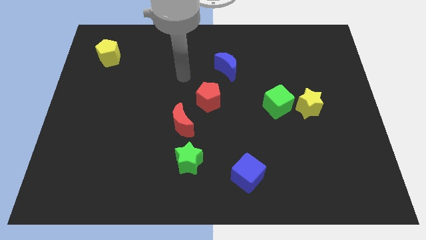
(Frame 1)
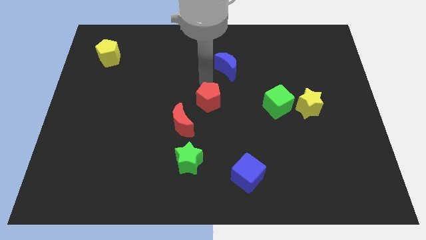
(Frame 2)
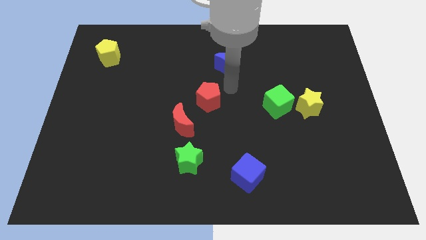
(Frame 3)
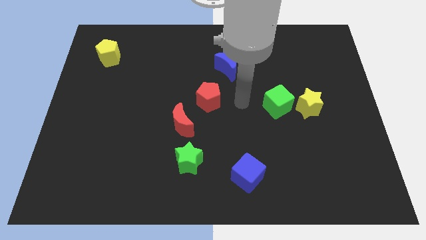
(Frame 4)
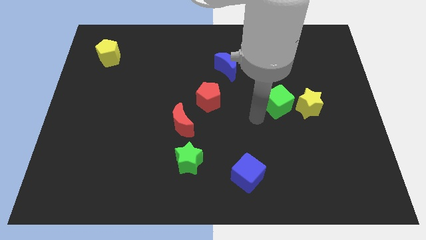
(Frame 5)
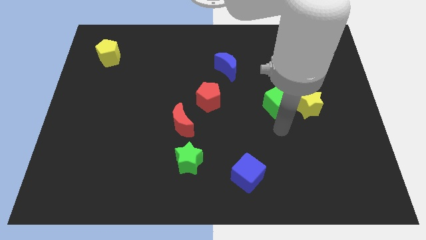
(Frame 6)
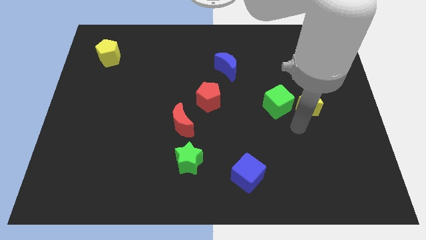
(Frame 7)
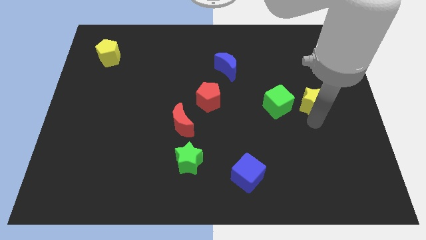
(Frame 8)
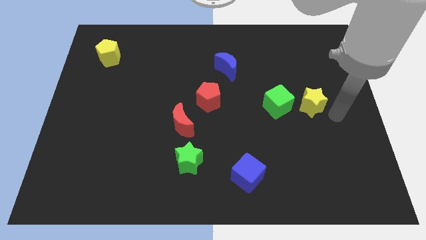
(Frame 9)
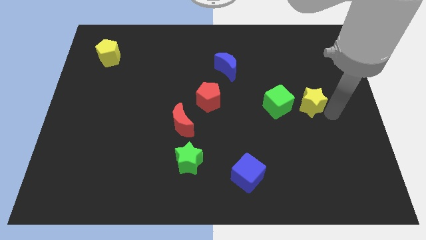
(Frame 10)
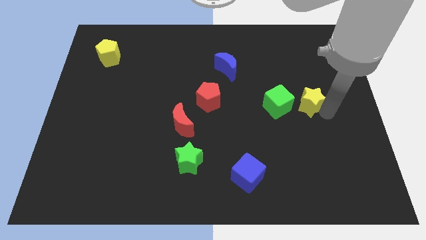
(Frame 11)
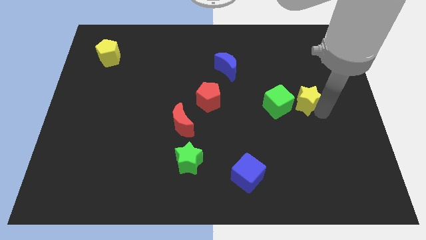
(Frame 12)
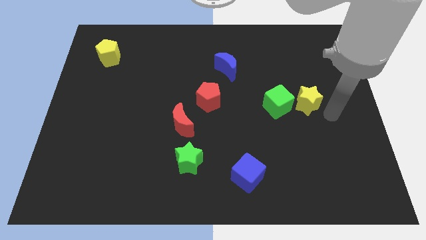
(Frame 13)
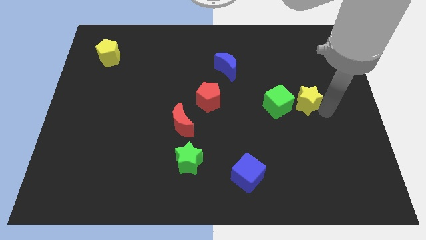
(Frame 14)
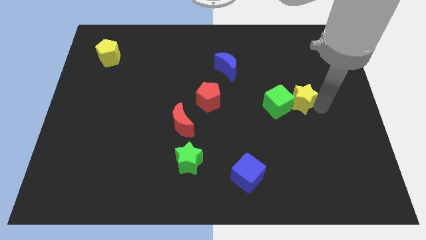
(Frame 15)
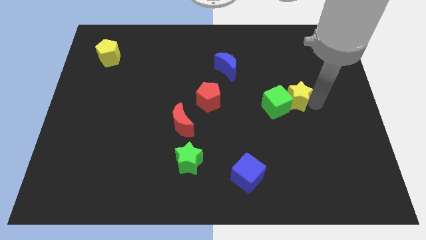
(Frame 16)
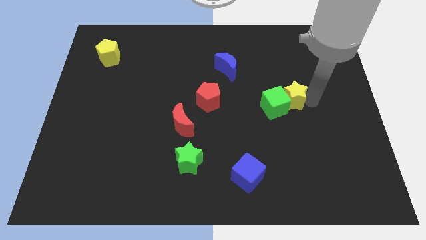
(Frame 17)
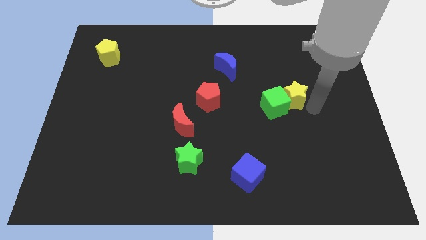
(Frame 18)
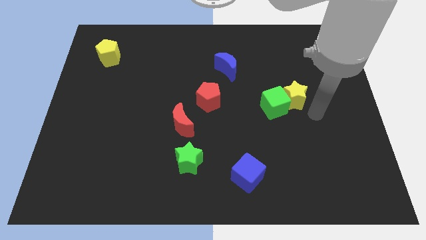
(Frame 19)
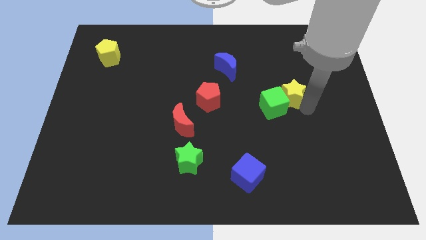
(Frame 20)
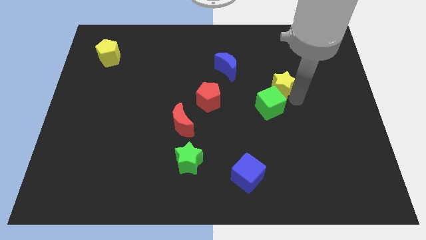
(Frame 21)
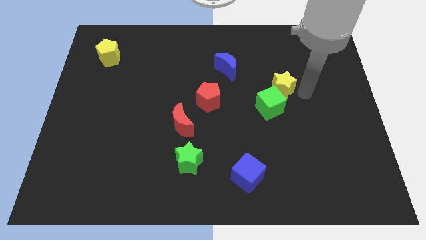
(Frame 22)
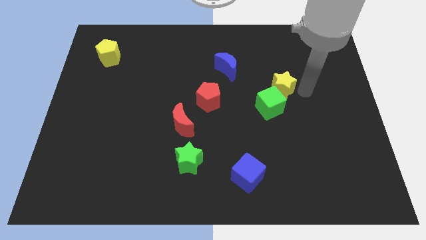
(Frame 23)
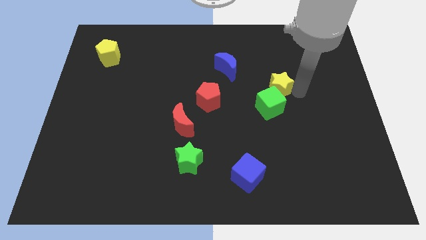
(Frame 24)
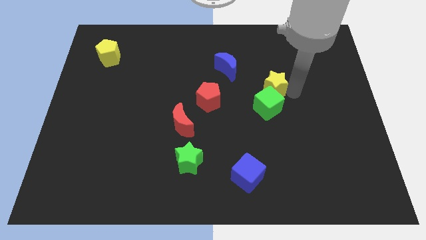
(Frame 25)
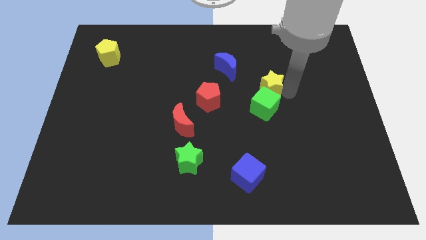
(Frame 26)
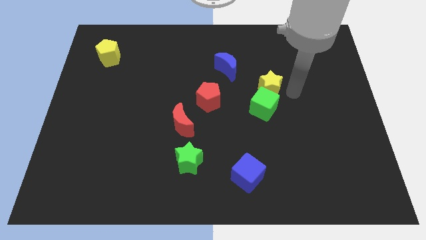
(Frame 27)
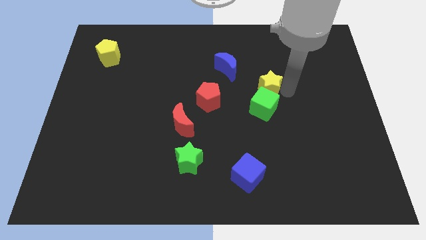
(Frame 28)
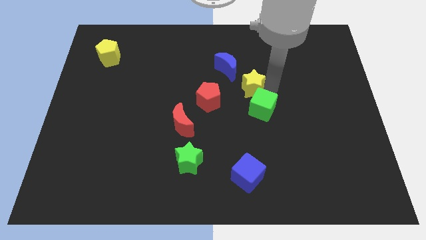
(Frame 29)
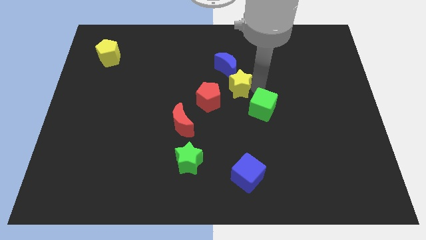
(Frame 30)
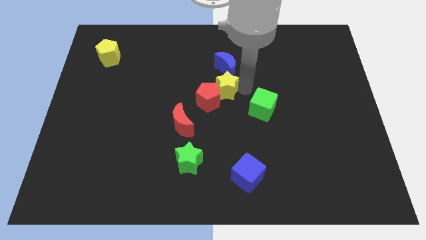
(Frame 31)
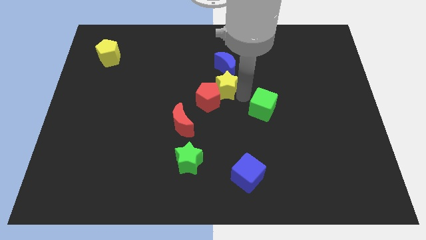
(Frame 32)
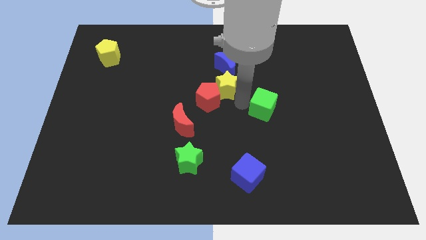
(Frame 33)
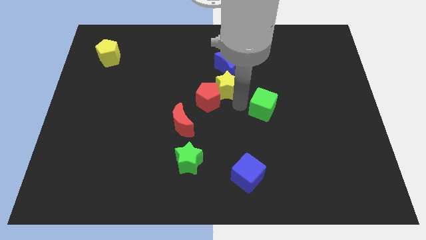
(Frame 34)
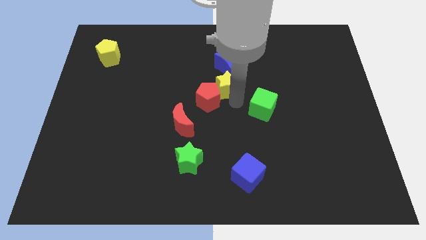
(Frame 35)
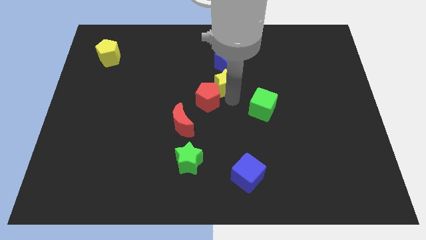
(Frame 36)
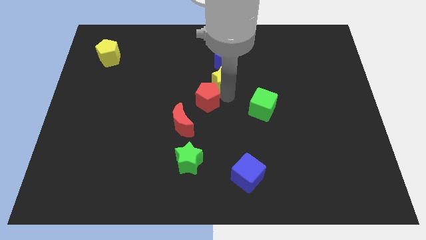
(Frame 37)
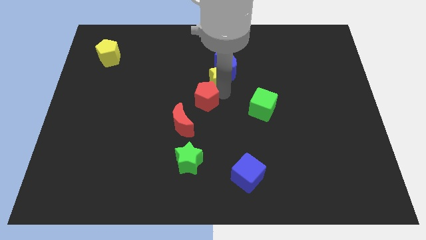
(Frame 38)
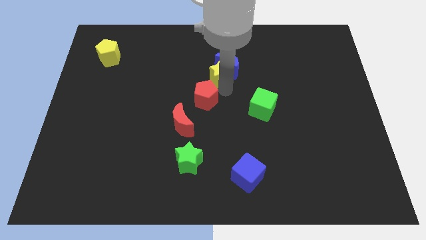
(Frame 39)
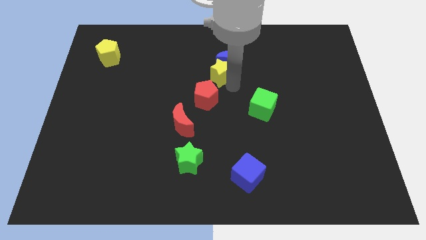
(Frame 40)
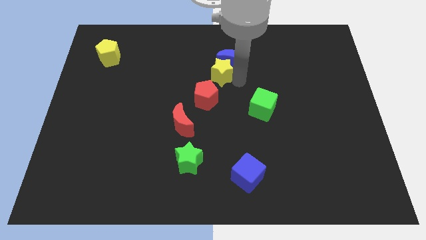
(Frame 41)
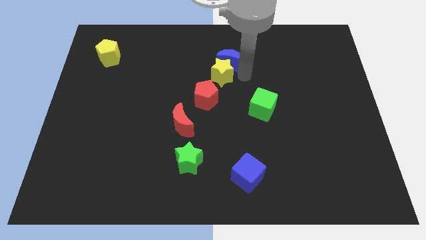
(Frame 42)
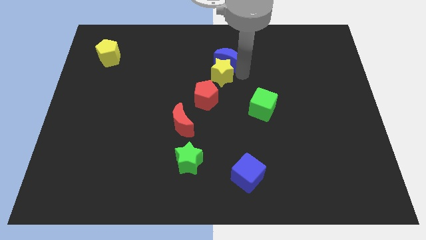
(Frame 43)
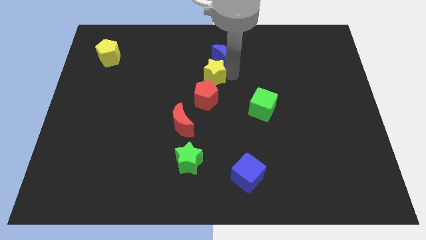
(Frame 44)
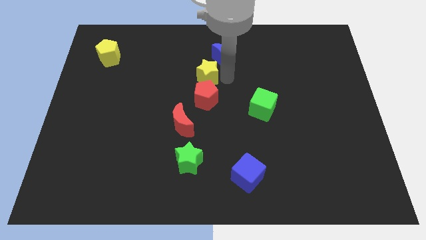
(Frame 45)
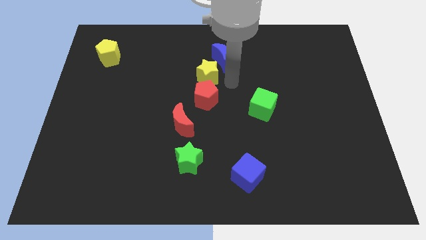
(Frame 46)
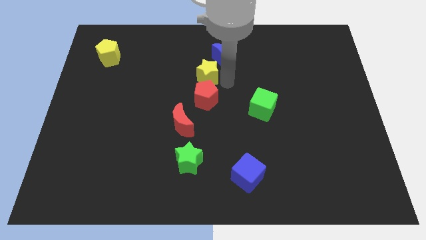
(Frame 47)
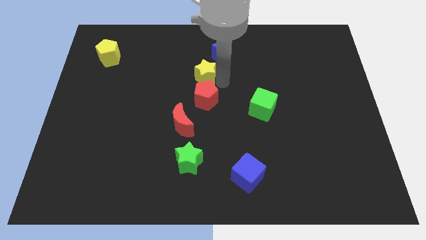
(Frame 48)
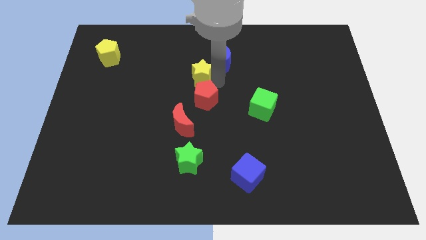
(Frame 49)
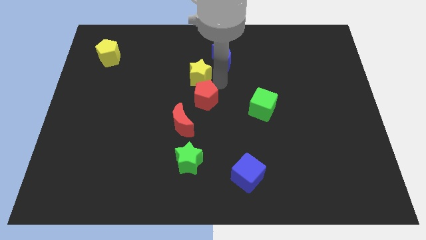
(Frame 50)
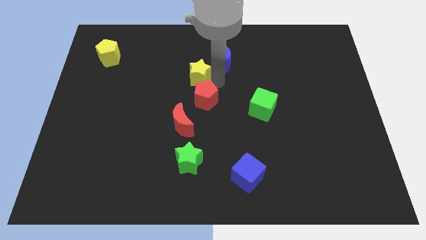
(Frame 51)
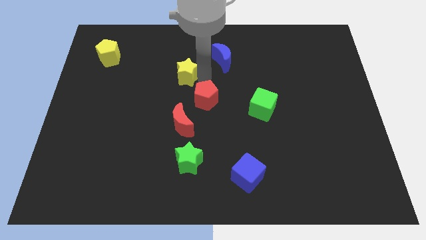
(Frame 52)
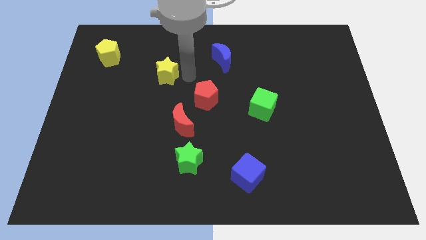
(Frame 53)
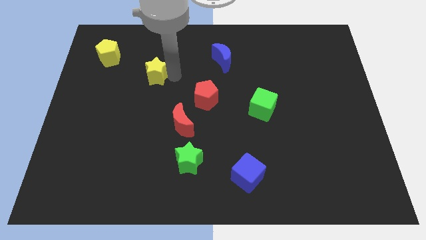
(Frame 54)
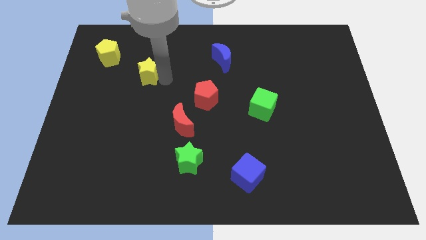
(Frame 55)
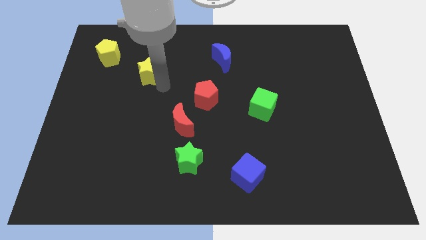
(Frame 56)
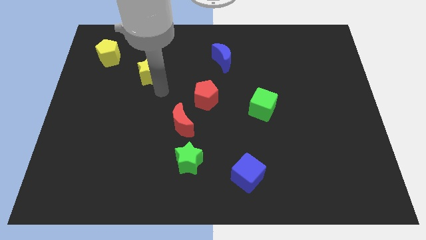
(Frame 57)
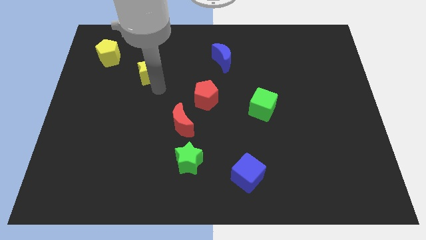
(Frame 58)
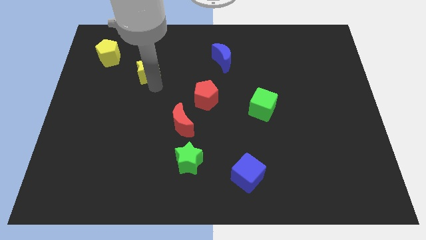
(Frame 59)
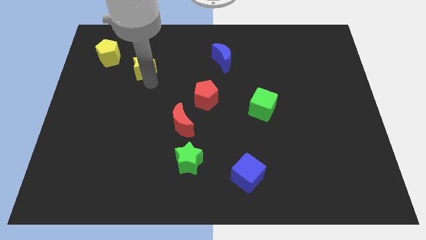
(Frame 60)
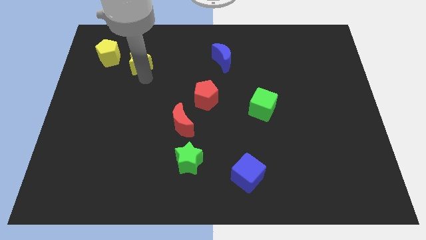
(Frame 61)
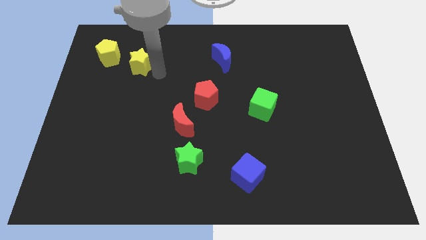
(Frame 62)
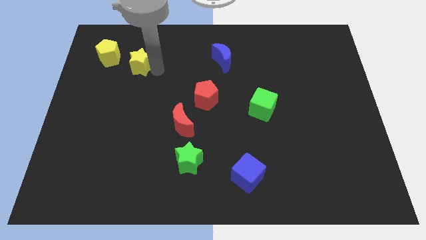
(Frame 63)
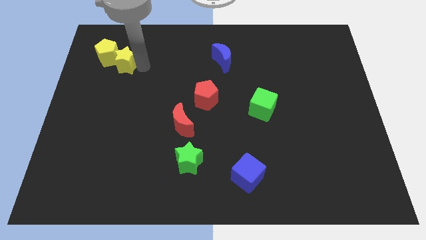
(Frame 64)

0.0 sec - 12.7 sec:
move the yellow star next to the yellow pentagon

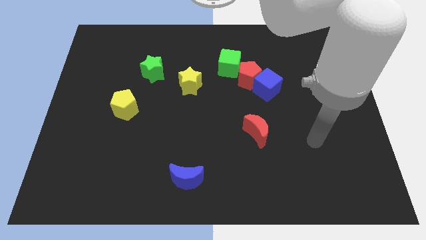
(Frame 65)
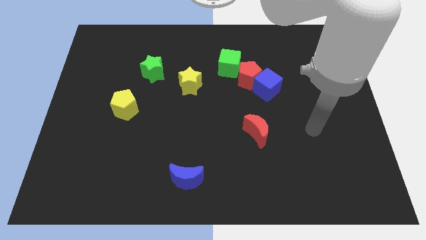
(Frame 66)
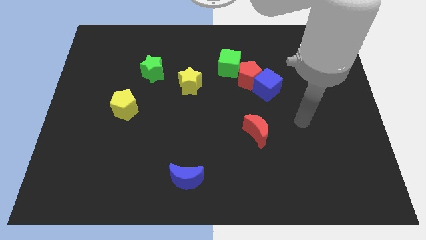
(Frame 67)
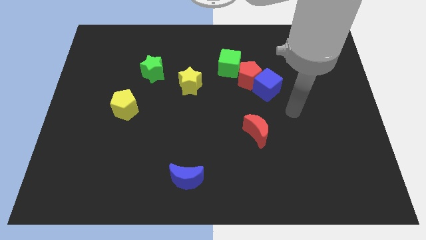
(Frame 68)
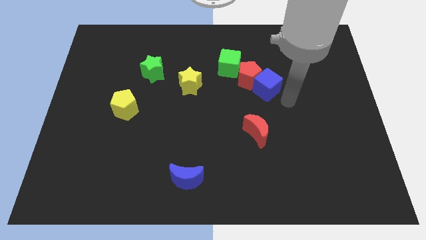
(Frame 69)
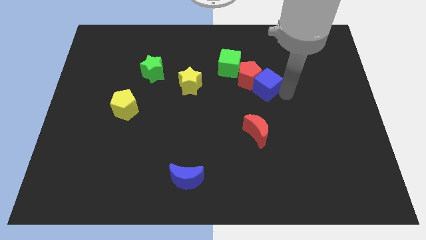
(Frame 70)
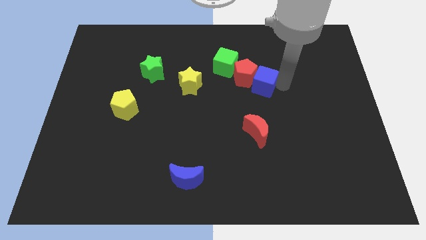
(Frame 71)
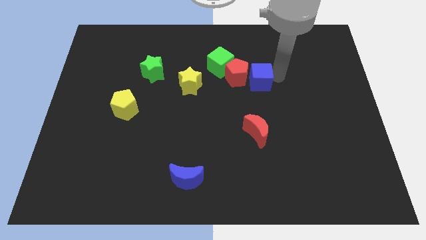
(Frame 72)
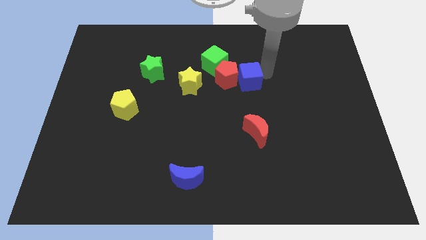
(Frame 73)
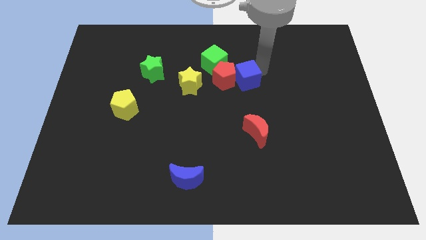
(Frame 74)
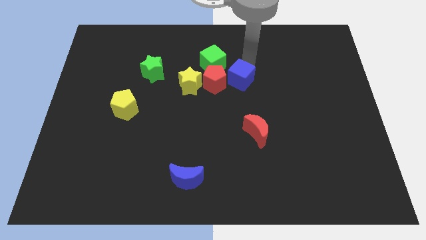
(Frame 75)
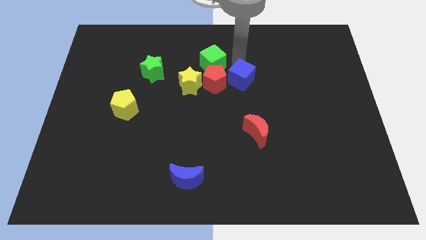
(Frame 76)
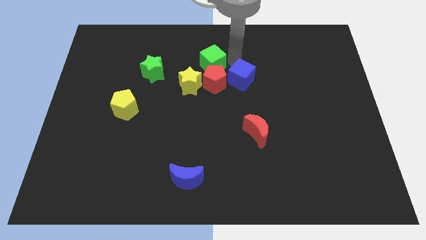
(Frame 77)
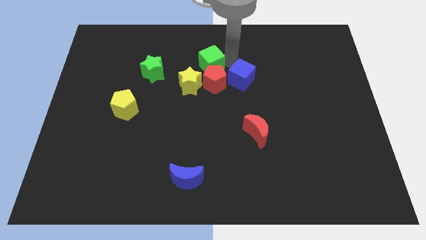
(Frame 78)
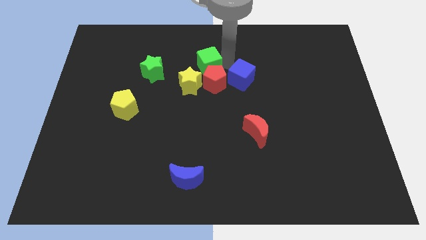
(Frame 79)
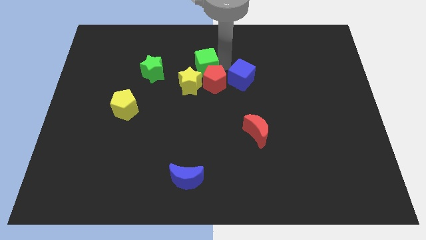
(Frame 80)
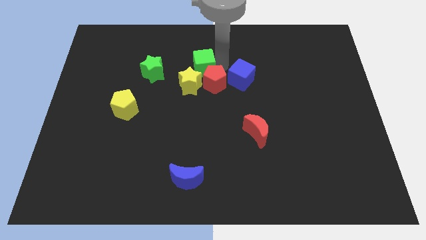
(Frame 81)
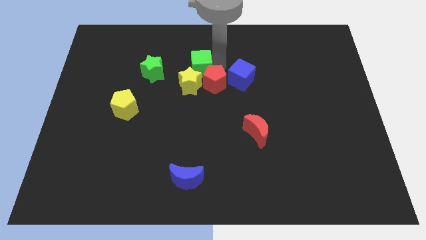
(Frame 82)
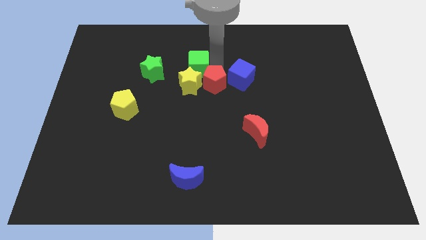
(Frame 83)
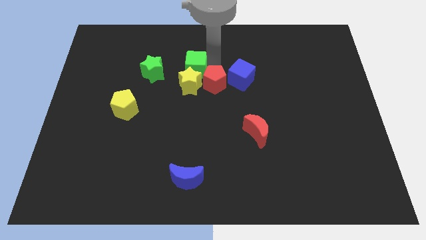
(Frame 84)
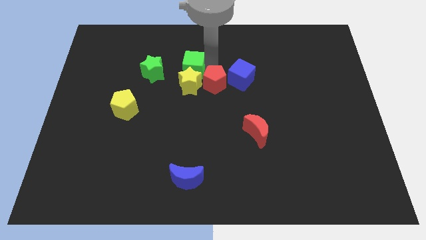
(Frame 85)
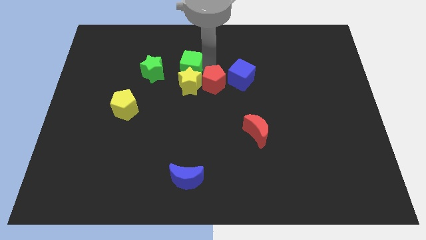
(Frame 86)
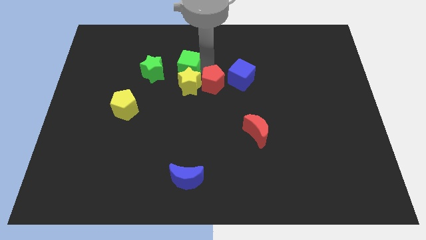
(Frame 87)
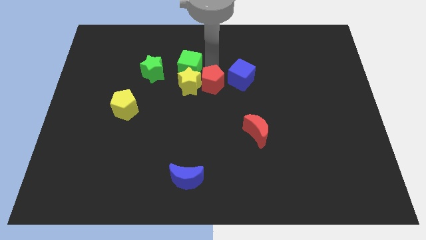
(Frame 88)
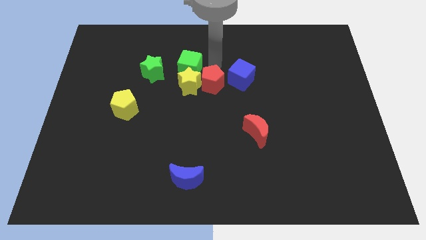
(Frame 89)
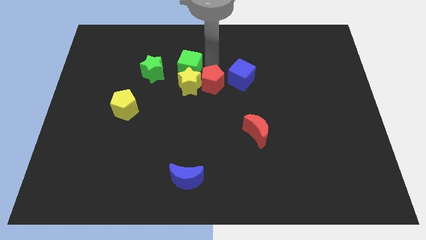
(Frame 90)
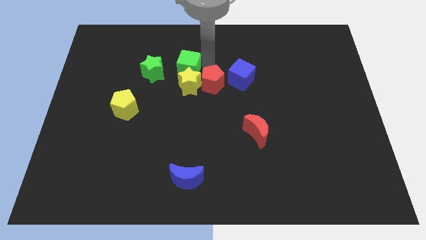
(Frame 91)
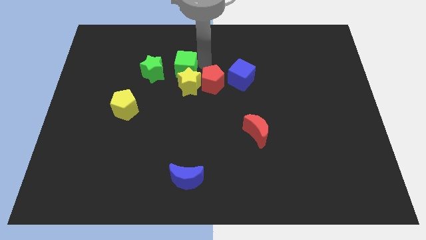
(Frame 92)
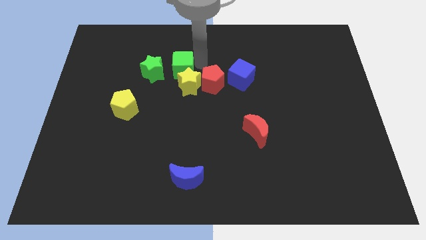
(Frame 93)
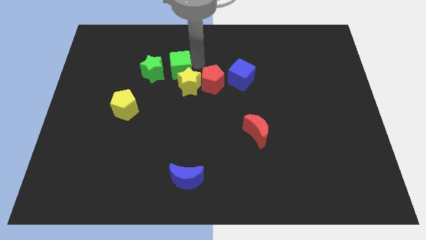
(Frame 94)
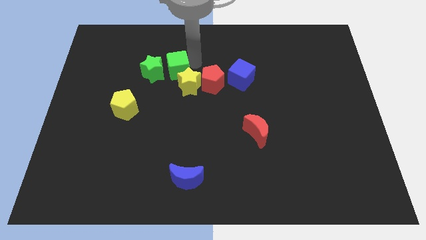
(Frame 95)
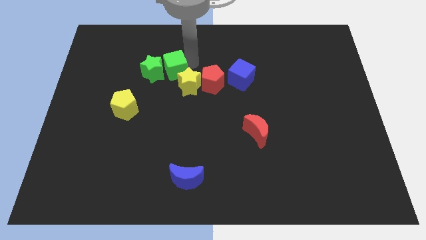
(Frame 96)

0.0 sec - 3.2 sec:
push the green cube towards the green star
